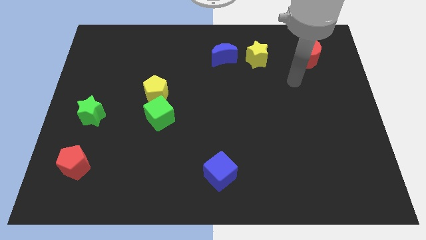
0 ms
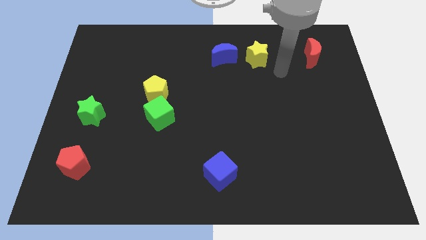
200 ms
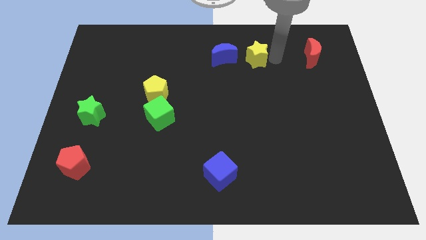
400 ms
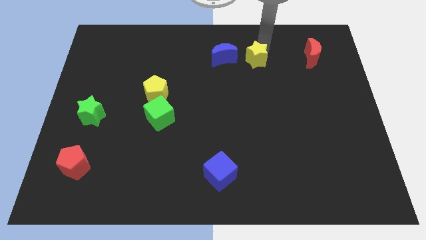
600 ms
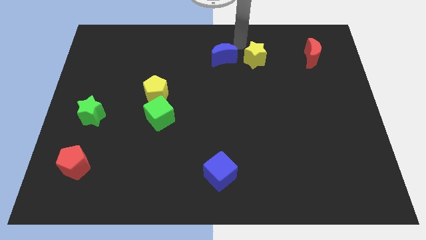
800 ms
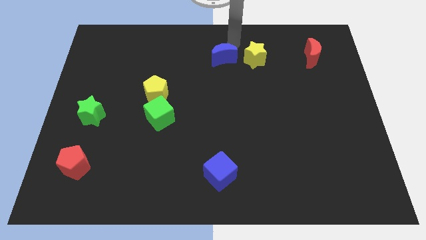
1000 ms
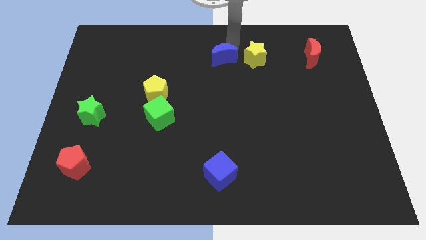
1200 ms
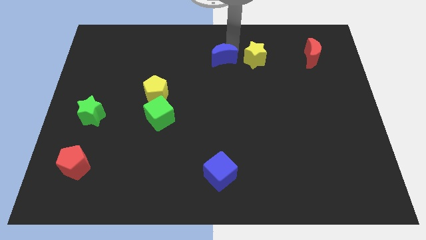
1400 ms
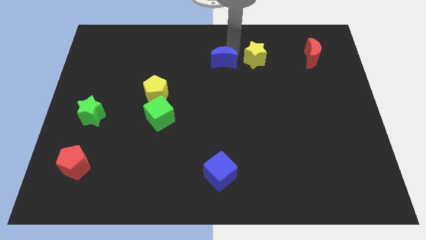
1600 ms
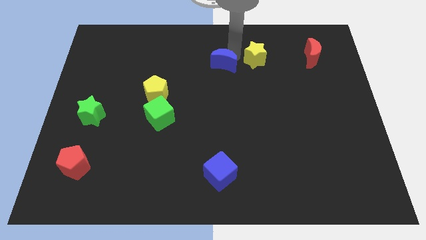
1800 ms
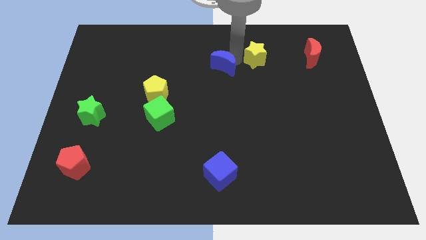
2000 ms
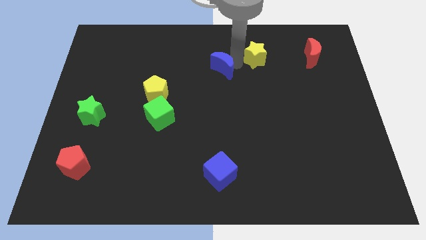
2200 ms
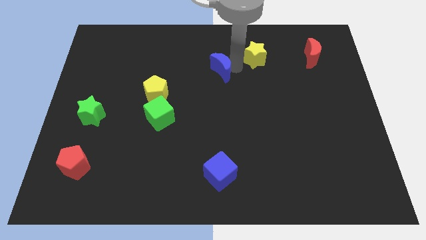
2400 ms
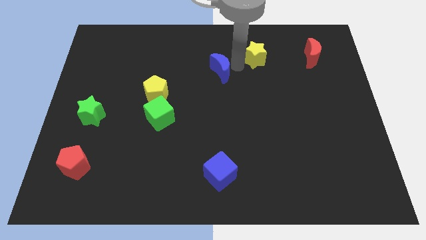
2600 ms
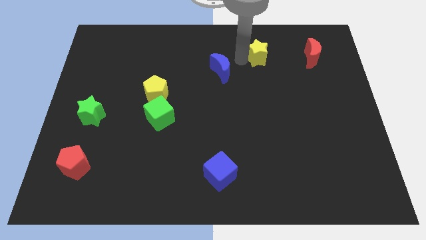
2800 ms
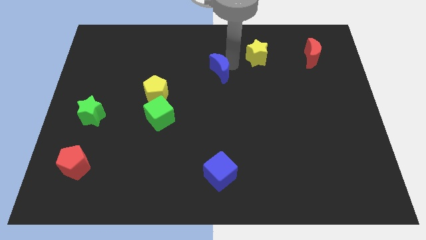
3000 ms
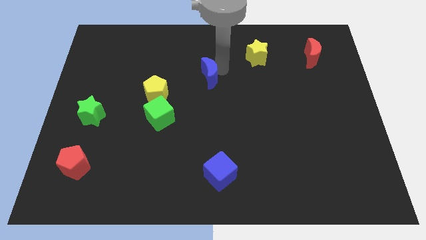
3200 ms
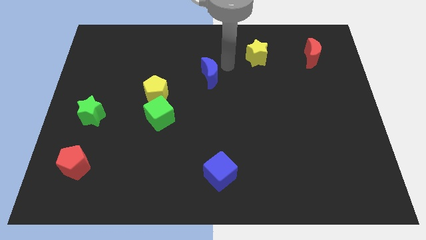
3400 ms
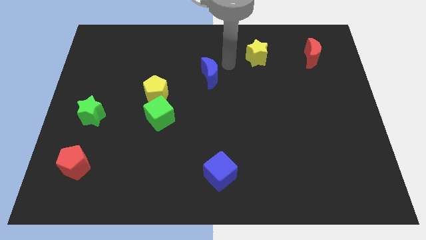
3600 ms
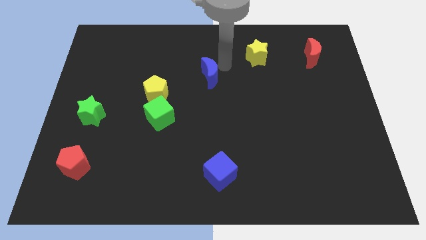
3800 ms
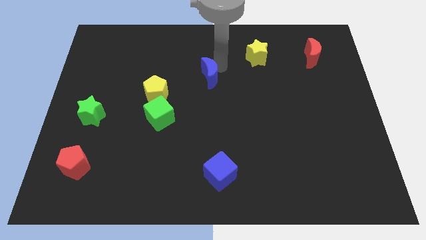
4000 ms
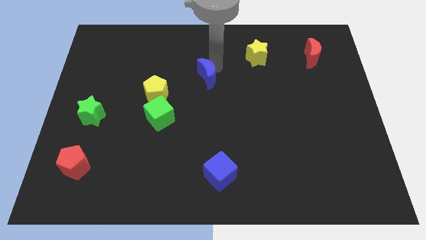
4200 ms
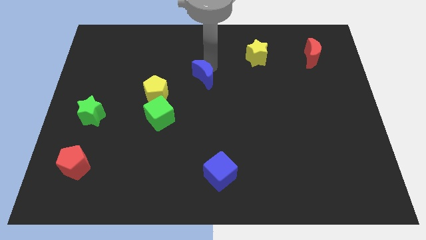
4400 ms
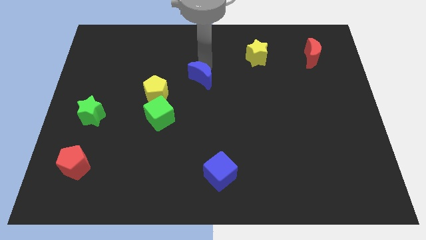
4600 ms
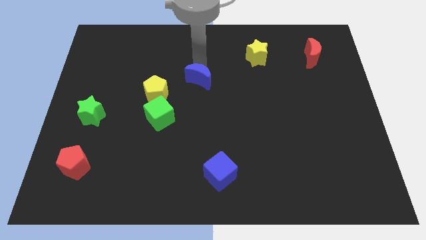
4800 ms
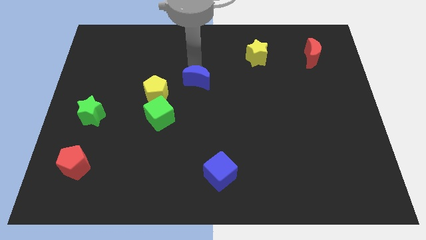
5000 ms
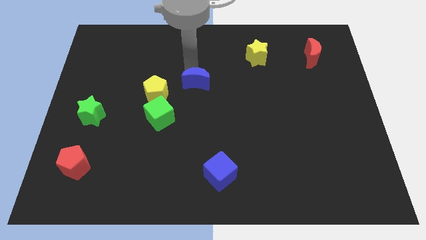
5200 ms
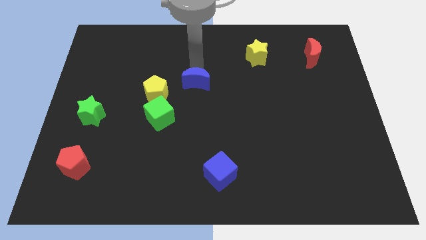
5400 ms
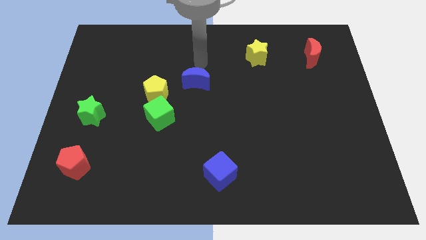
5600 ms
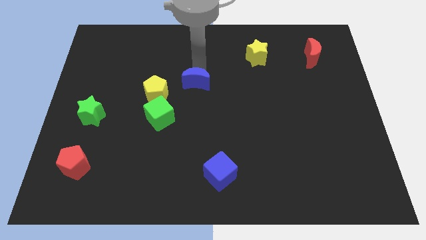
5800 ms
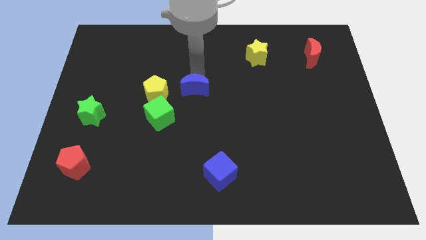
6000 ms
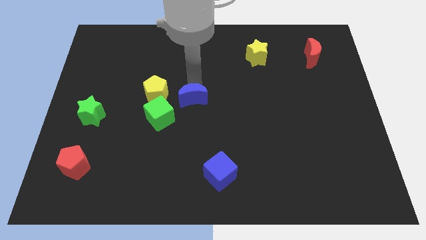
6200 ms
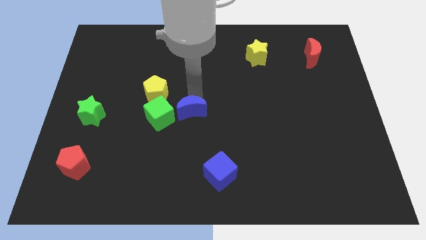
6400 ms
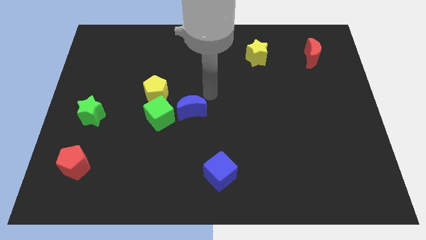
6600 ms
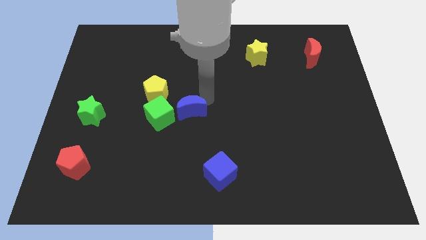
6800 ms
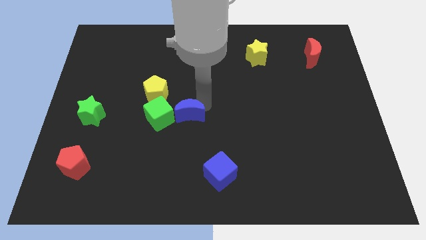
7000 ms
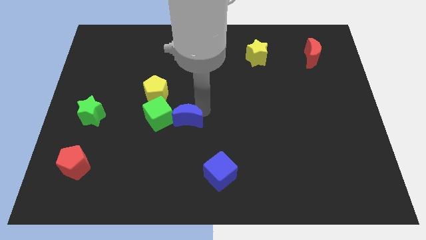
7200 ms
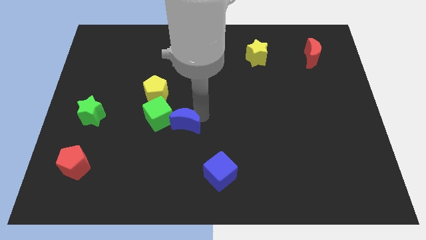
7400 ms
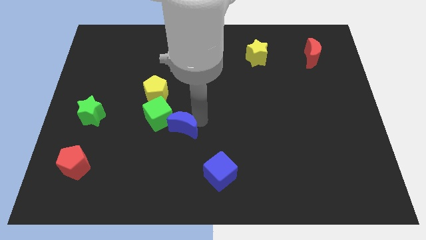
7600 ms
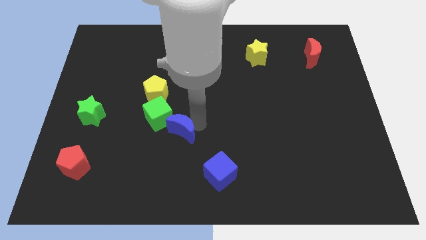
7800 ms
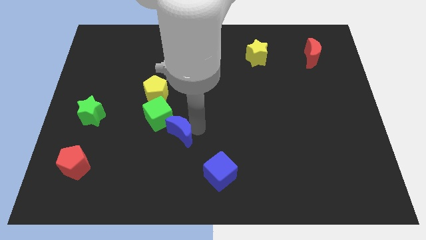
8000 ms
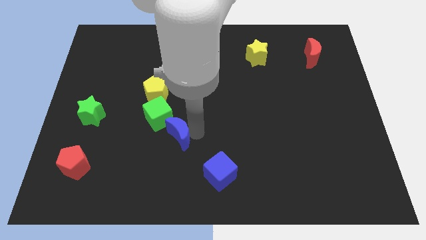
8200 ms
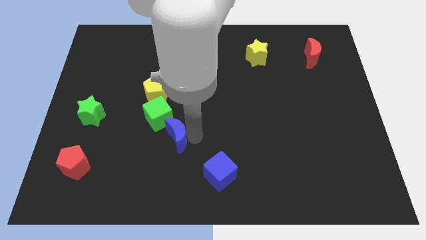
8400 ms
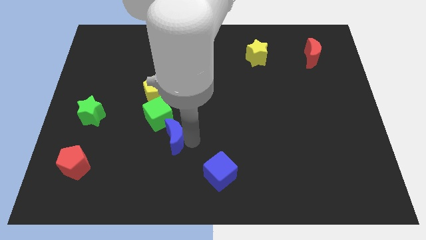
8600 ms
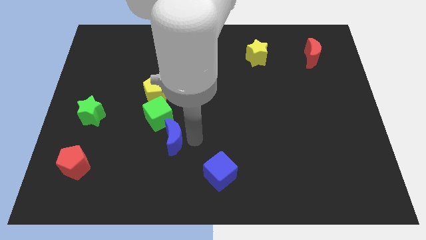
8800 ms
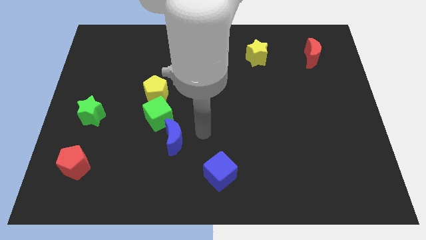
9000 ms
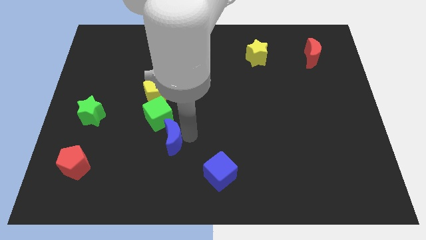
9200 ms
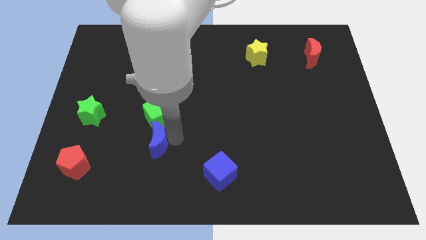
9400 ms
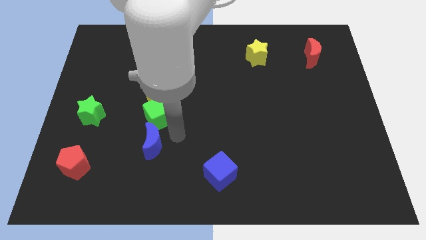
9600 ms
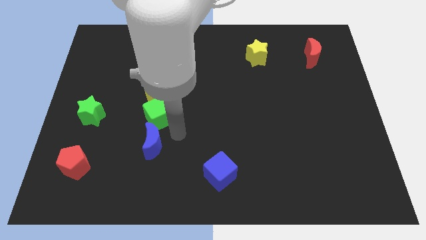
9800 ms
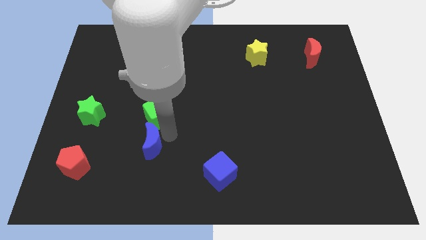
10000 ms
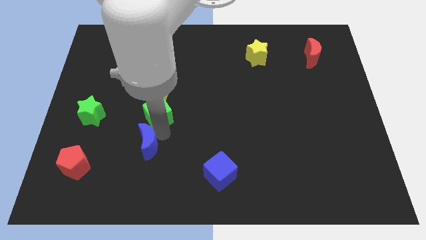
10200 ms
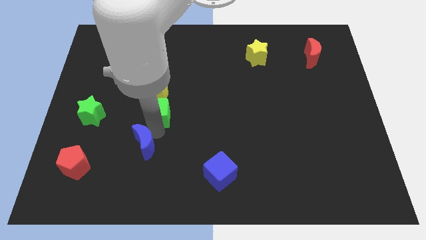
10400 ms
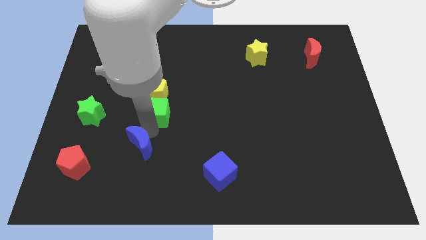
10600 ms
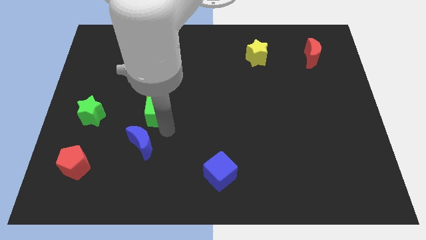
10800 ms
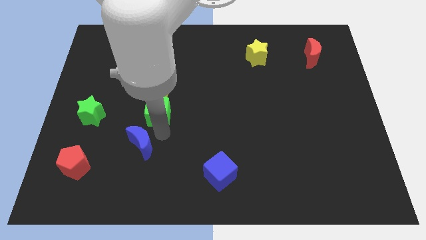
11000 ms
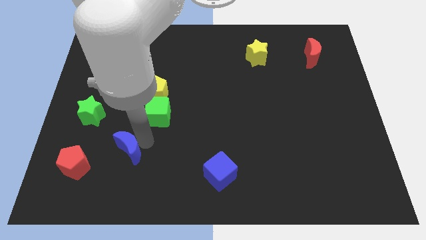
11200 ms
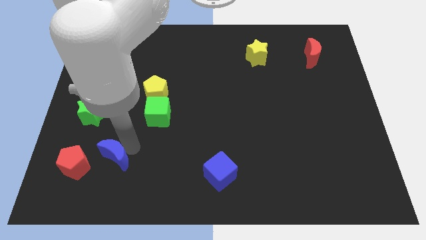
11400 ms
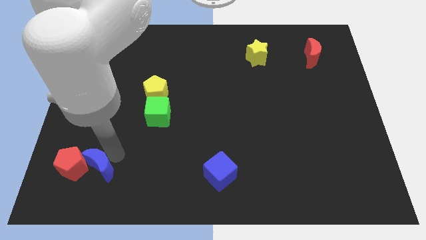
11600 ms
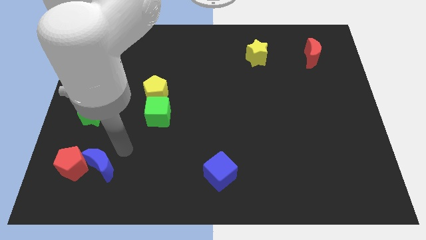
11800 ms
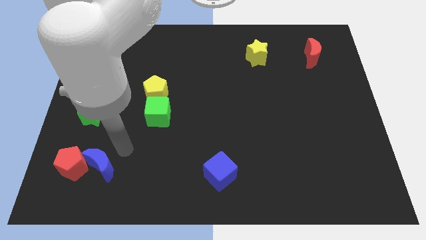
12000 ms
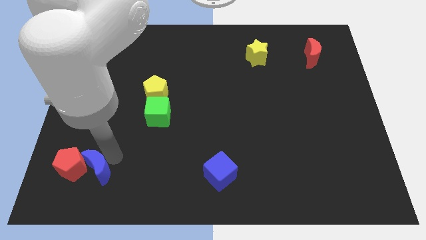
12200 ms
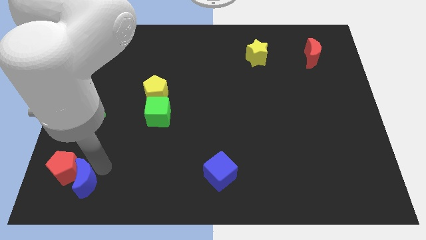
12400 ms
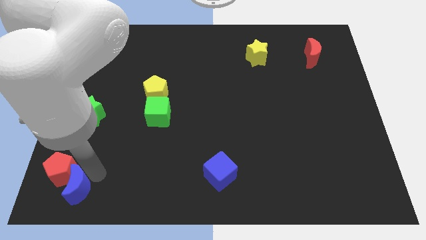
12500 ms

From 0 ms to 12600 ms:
move the blue moon to the bottom left of the board
